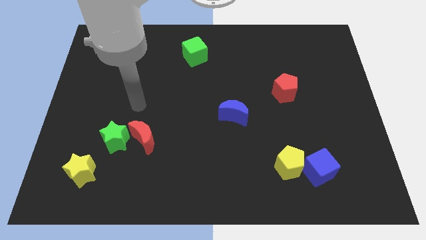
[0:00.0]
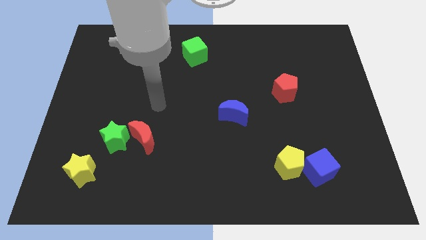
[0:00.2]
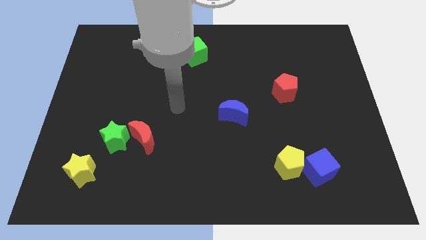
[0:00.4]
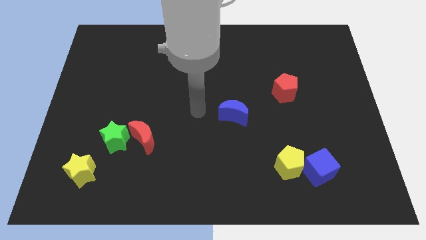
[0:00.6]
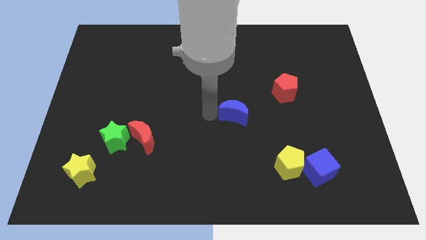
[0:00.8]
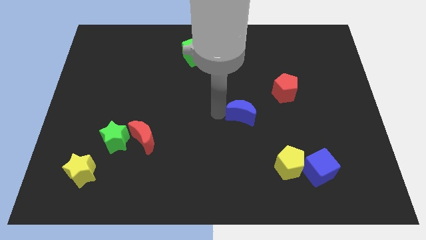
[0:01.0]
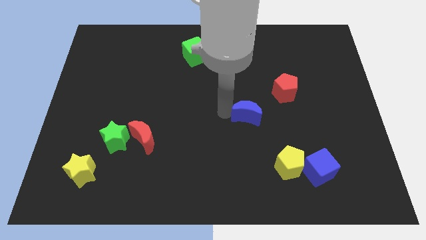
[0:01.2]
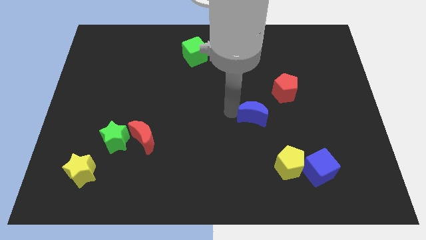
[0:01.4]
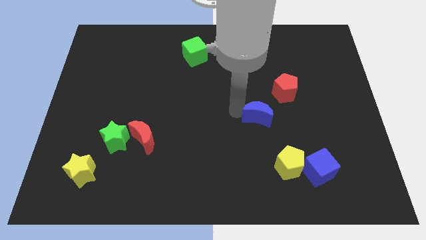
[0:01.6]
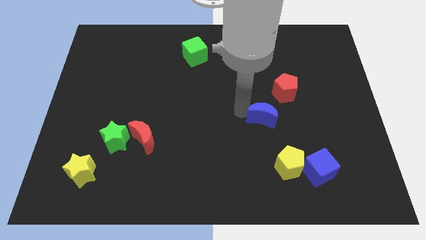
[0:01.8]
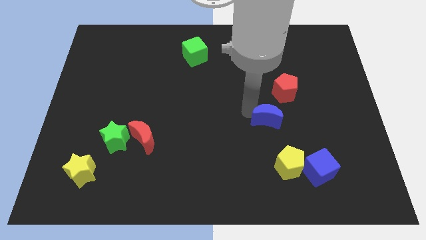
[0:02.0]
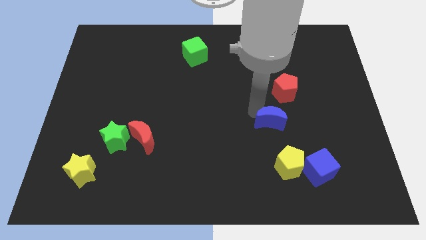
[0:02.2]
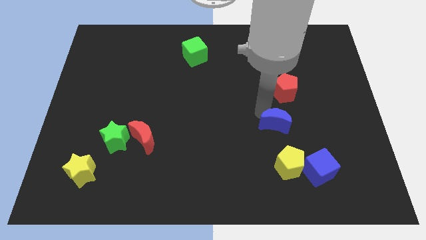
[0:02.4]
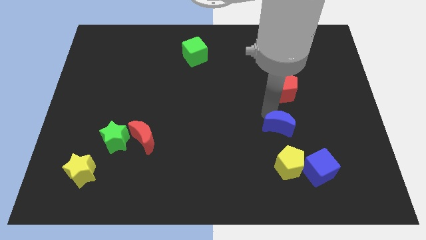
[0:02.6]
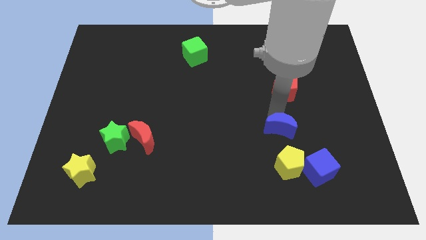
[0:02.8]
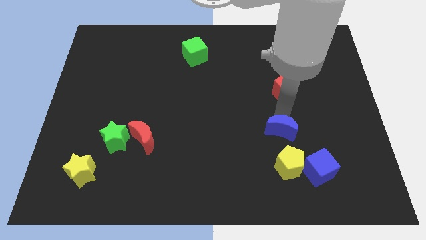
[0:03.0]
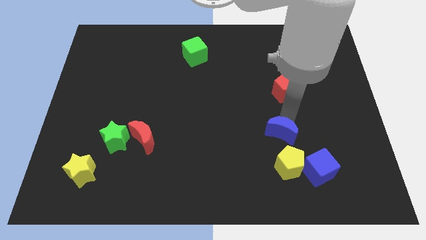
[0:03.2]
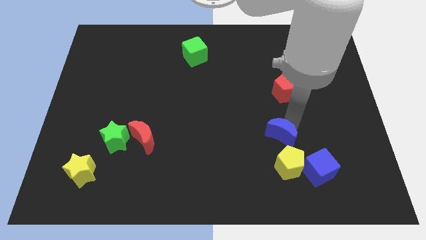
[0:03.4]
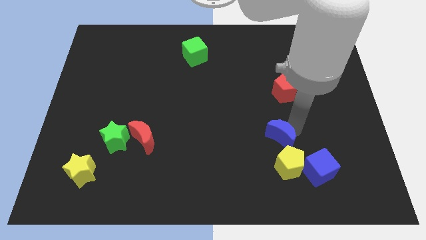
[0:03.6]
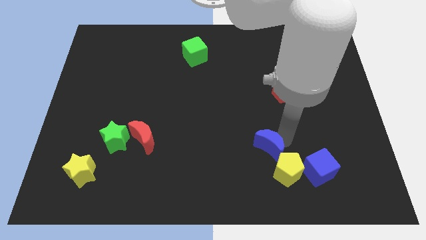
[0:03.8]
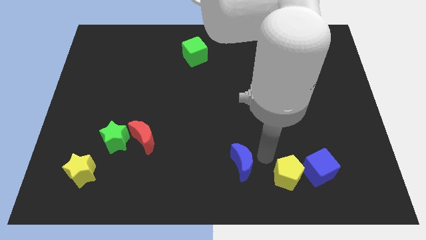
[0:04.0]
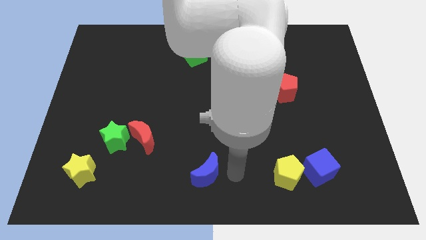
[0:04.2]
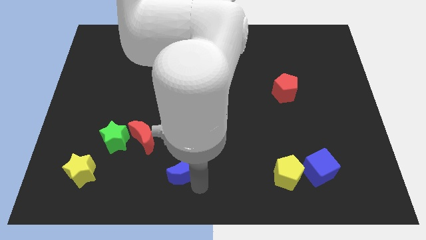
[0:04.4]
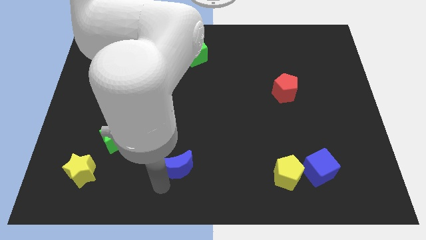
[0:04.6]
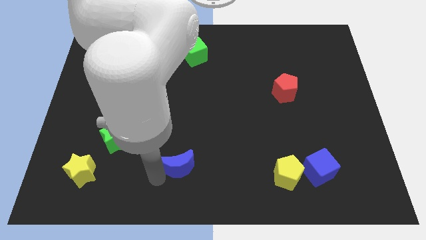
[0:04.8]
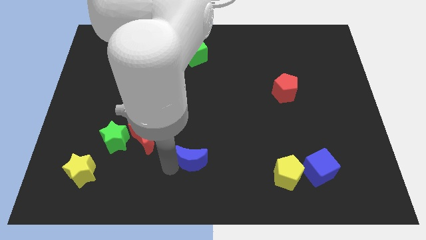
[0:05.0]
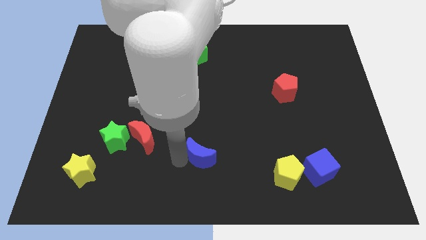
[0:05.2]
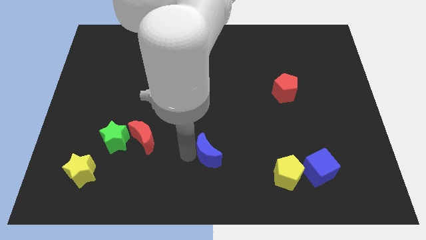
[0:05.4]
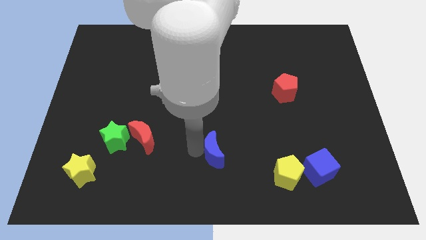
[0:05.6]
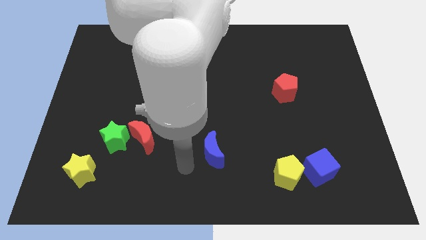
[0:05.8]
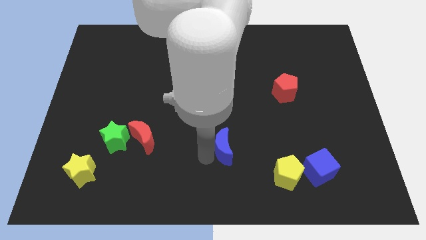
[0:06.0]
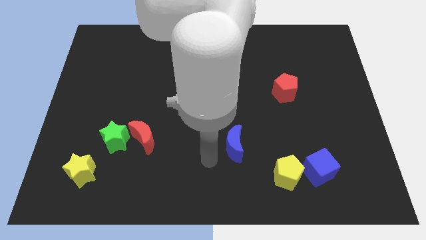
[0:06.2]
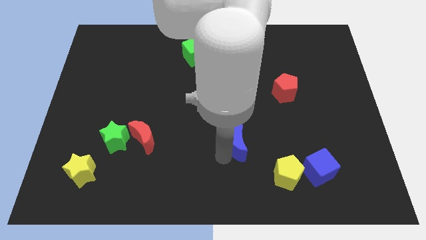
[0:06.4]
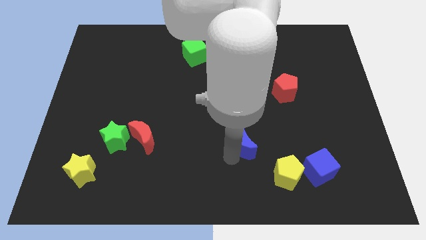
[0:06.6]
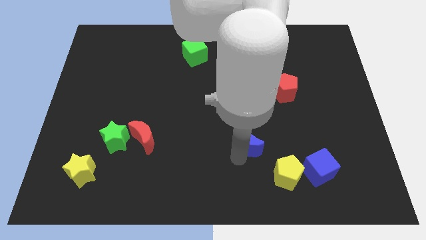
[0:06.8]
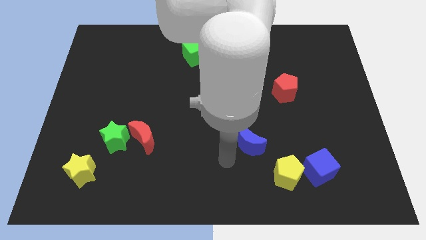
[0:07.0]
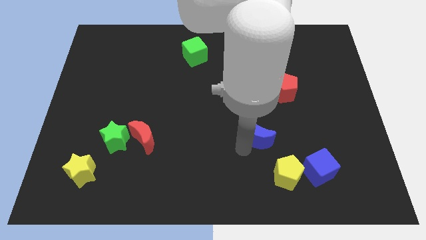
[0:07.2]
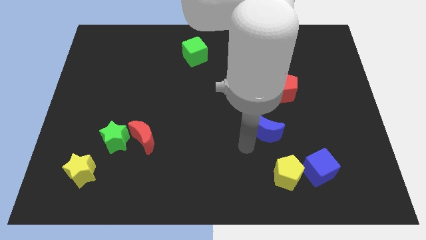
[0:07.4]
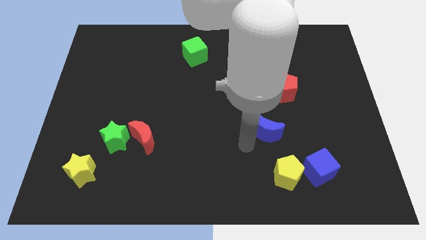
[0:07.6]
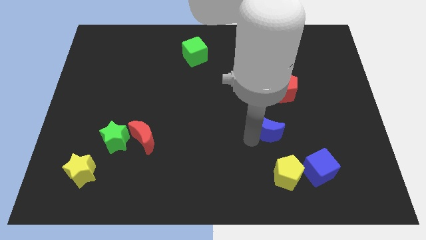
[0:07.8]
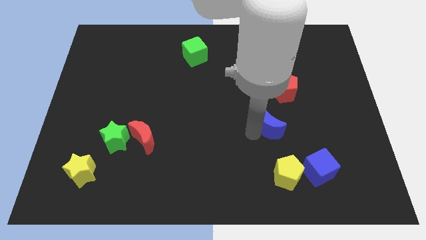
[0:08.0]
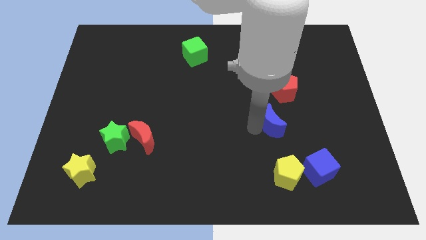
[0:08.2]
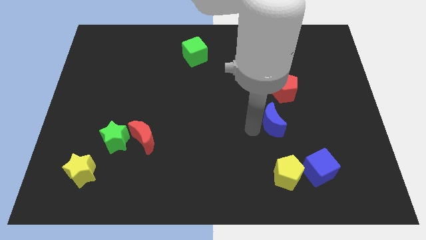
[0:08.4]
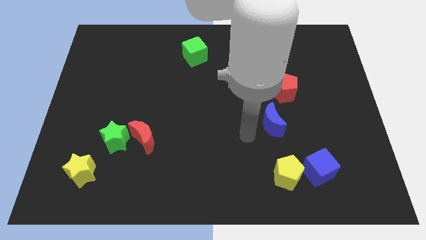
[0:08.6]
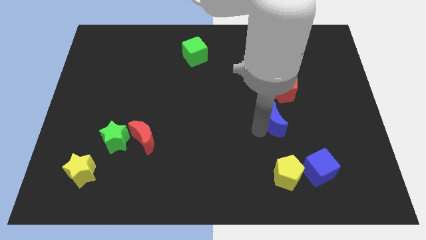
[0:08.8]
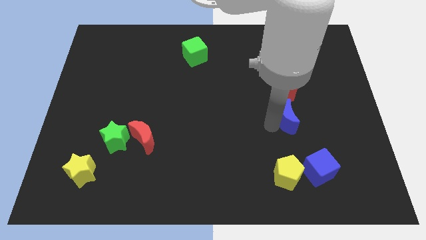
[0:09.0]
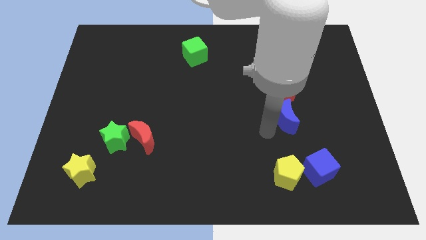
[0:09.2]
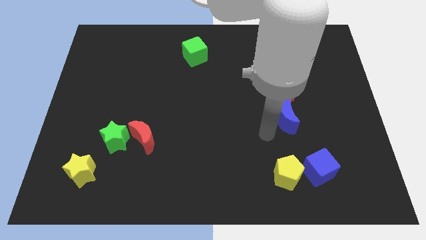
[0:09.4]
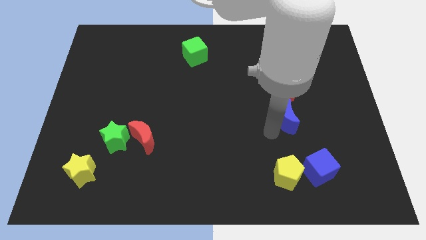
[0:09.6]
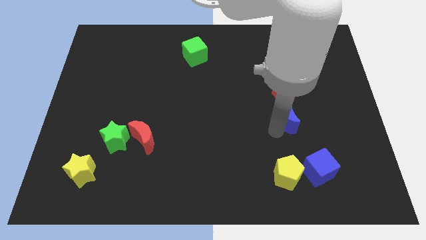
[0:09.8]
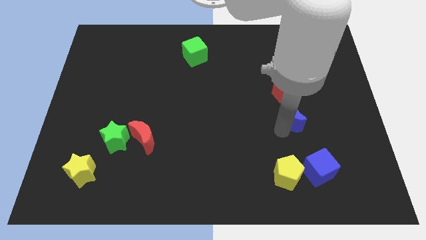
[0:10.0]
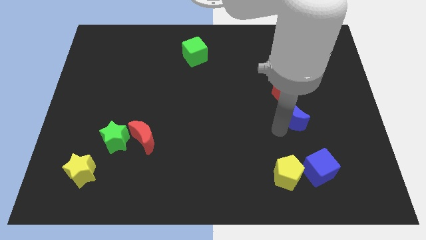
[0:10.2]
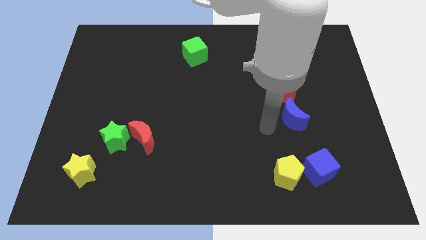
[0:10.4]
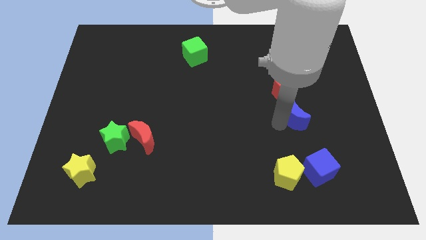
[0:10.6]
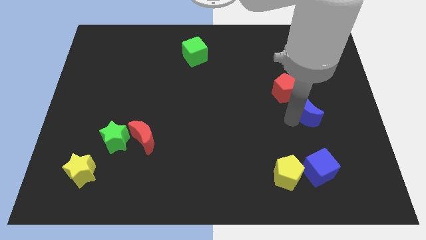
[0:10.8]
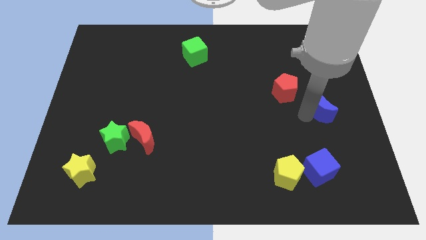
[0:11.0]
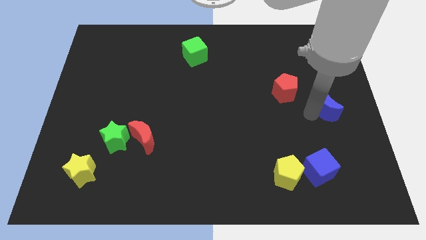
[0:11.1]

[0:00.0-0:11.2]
move the blue moon to the right side of the board

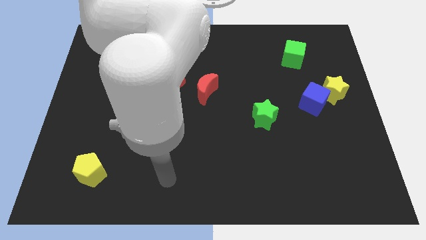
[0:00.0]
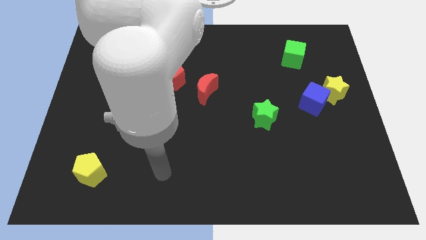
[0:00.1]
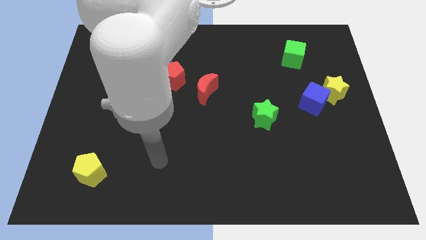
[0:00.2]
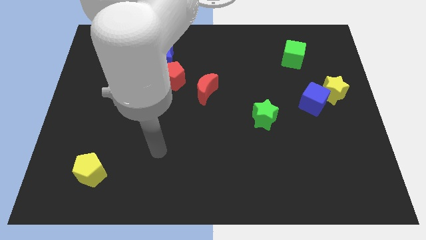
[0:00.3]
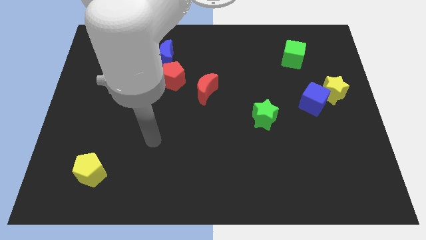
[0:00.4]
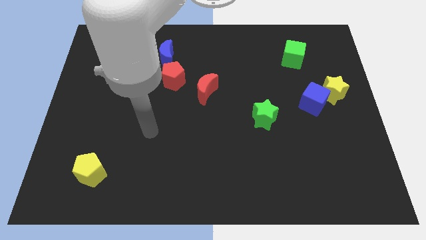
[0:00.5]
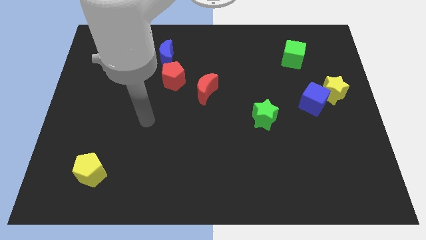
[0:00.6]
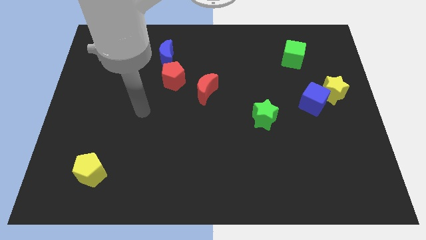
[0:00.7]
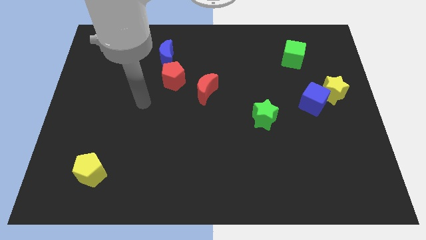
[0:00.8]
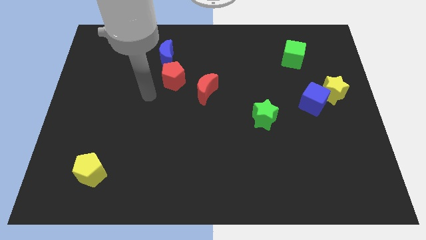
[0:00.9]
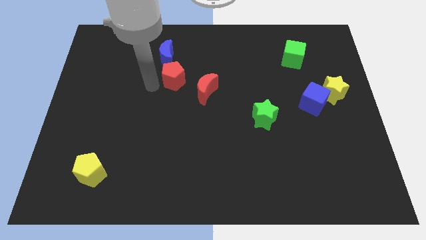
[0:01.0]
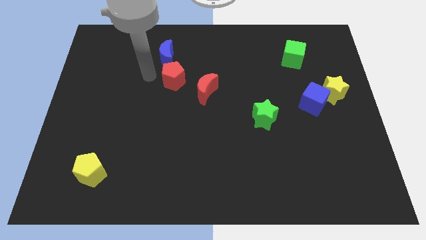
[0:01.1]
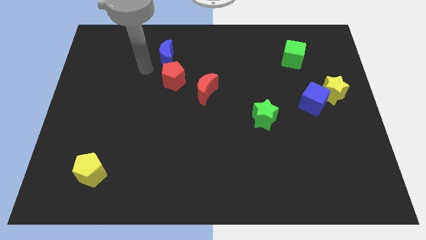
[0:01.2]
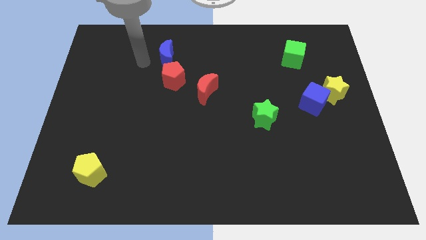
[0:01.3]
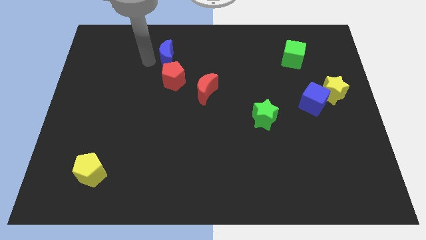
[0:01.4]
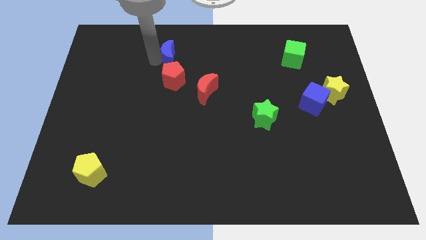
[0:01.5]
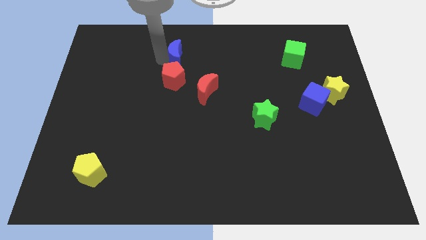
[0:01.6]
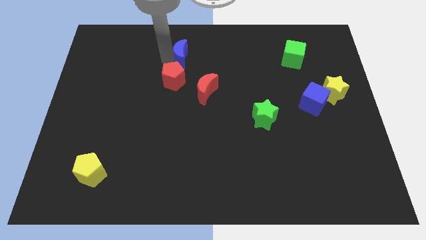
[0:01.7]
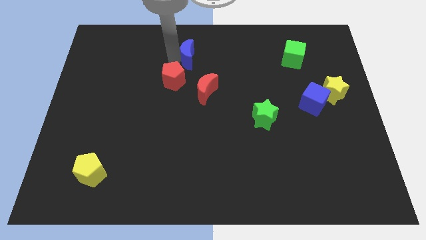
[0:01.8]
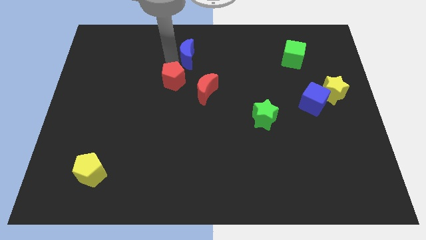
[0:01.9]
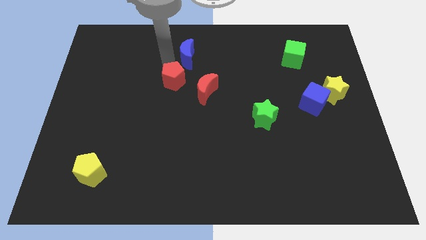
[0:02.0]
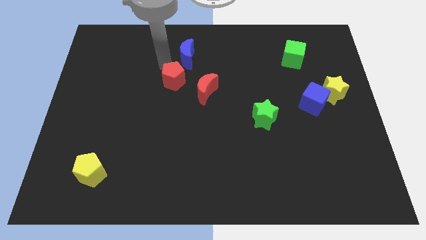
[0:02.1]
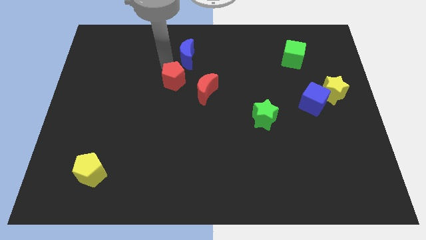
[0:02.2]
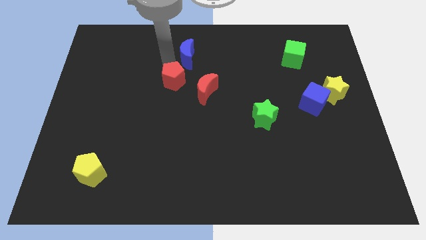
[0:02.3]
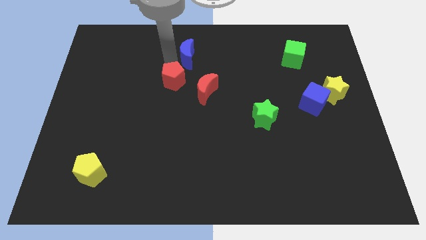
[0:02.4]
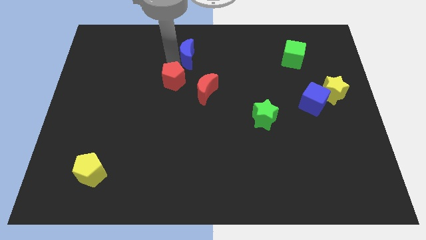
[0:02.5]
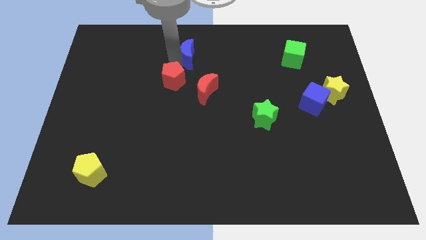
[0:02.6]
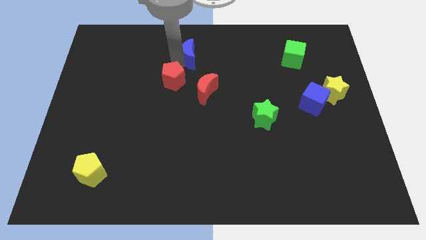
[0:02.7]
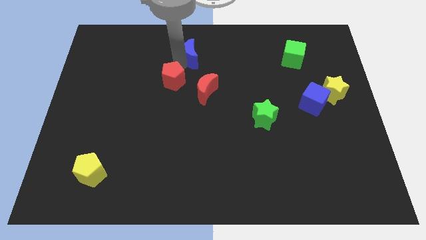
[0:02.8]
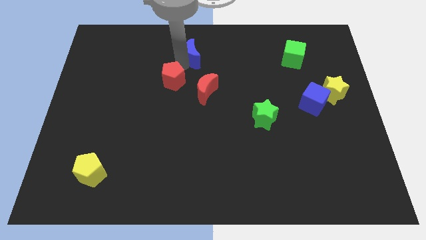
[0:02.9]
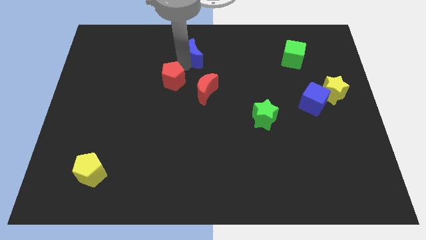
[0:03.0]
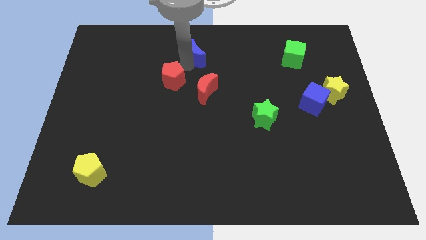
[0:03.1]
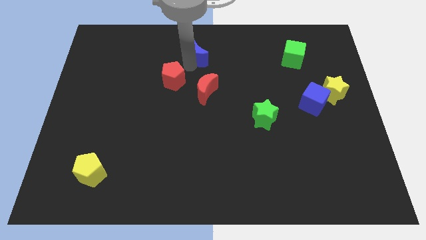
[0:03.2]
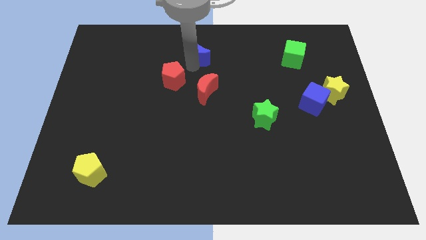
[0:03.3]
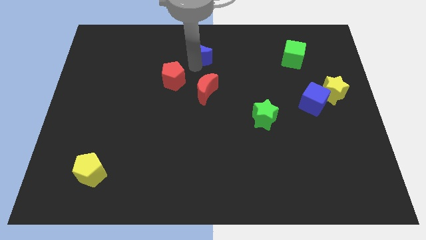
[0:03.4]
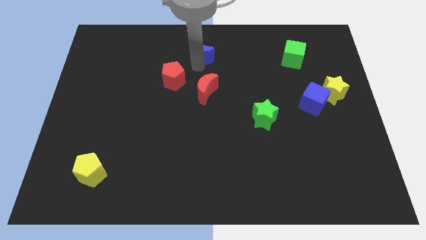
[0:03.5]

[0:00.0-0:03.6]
push the blue moon to the top side
